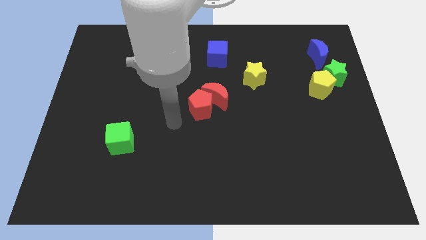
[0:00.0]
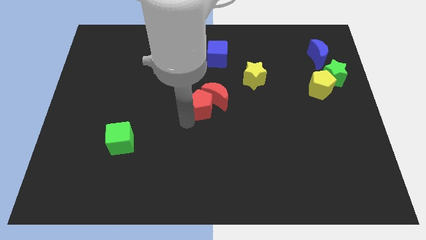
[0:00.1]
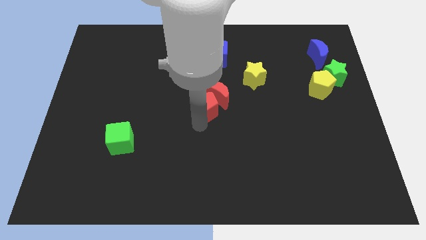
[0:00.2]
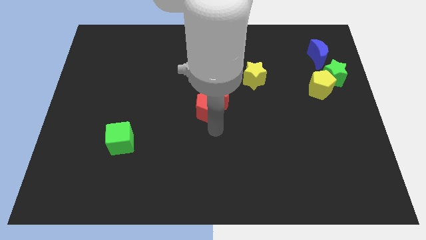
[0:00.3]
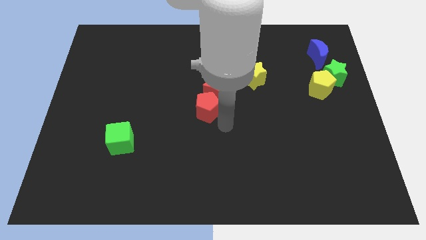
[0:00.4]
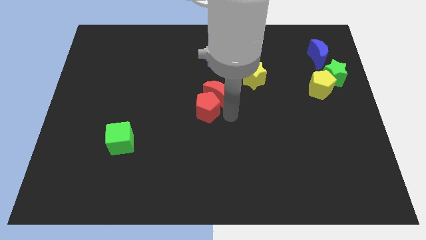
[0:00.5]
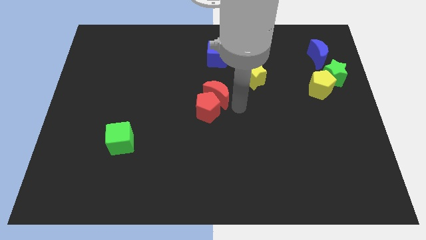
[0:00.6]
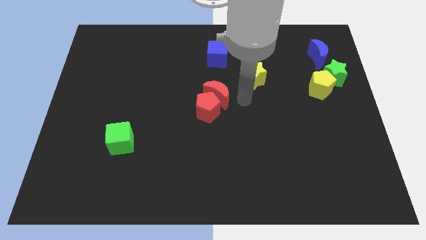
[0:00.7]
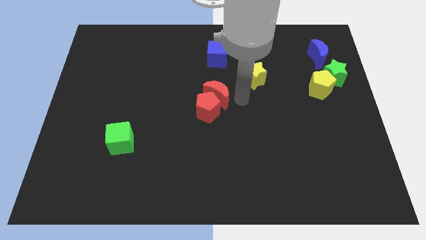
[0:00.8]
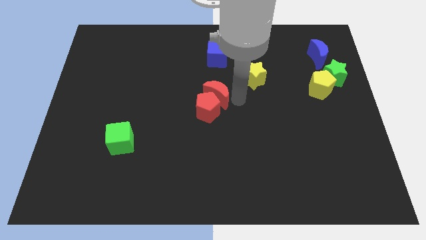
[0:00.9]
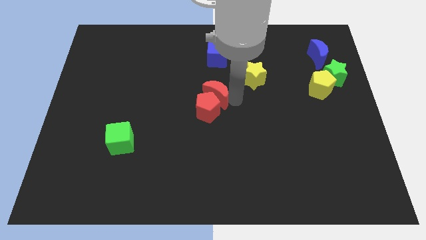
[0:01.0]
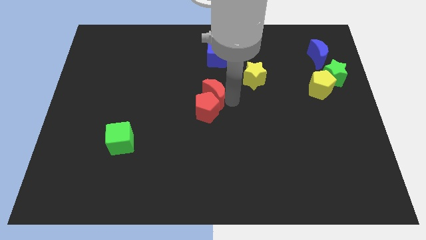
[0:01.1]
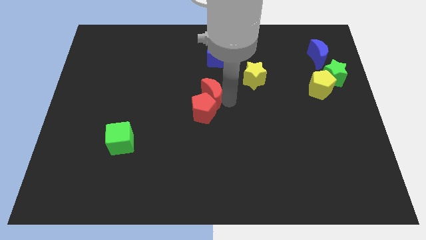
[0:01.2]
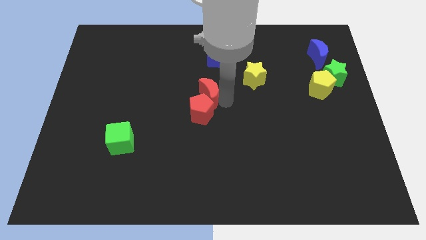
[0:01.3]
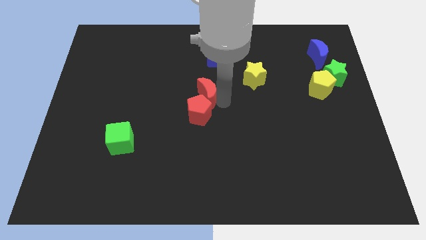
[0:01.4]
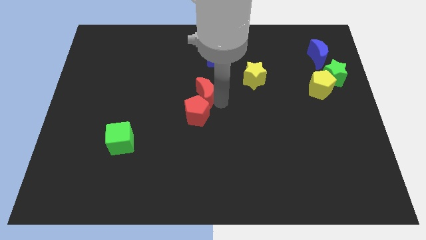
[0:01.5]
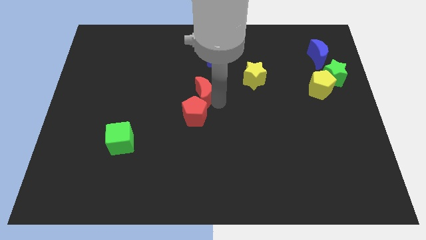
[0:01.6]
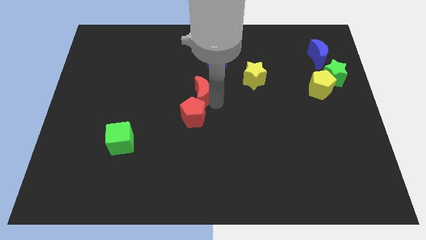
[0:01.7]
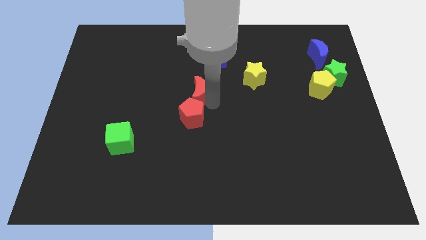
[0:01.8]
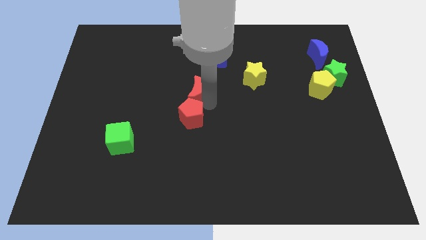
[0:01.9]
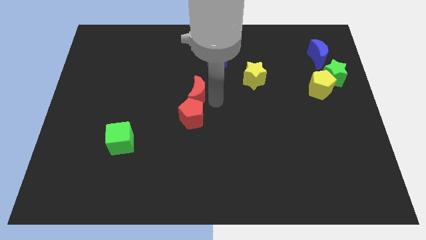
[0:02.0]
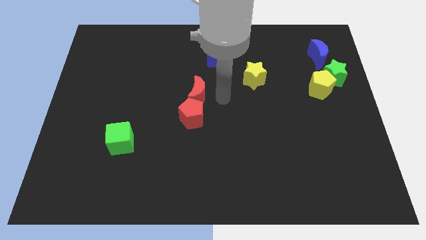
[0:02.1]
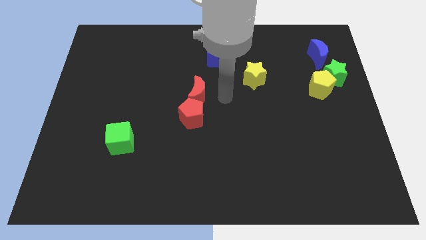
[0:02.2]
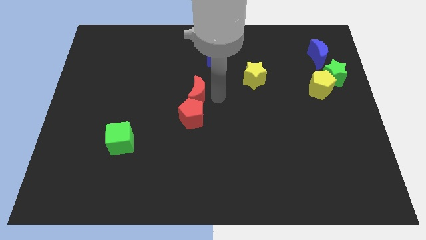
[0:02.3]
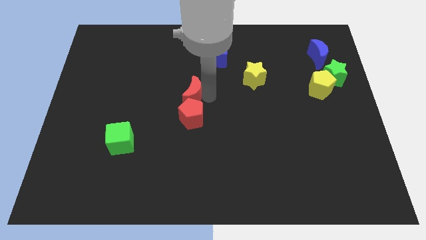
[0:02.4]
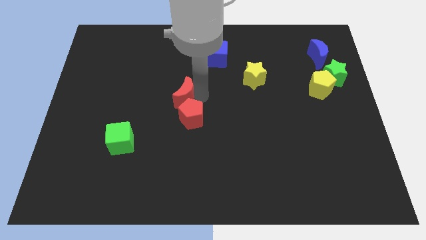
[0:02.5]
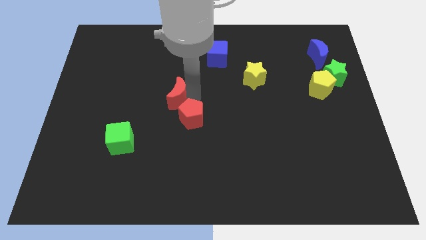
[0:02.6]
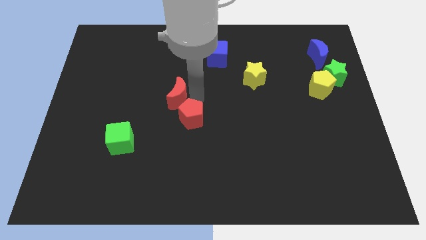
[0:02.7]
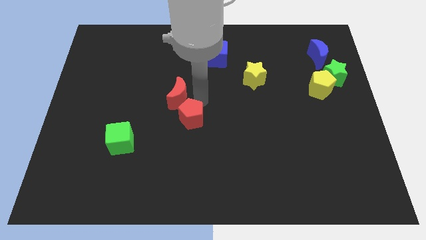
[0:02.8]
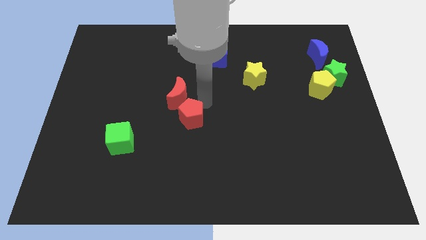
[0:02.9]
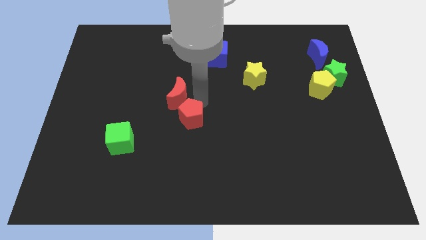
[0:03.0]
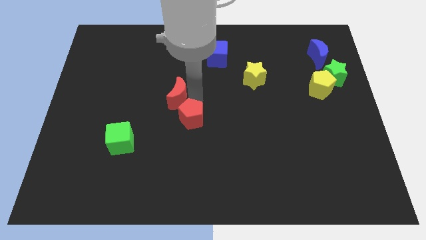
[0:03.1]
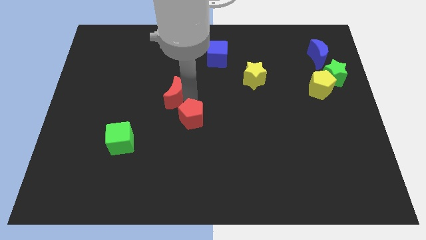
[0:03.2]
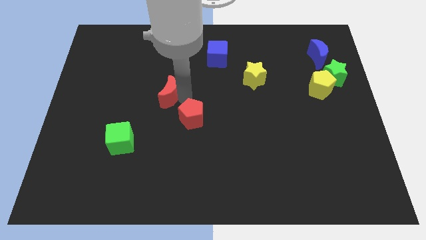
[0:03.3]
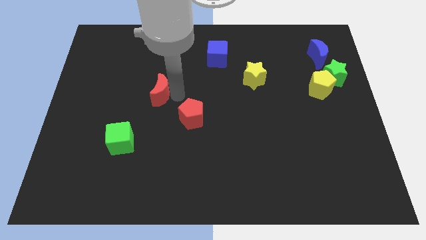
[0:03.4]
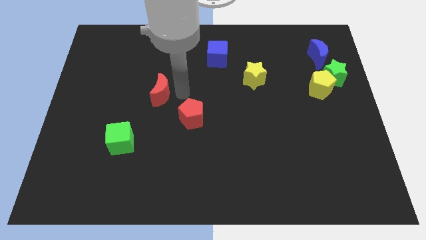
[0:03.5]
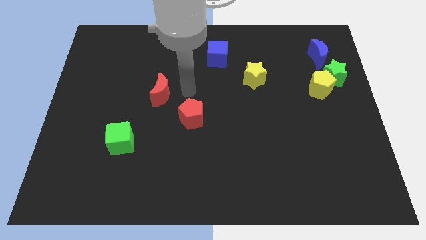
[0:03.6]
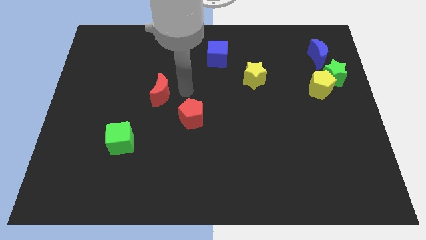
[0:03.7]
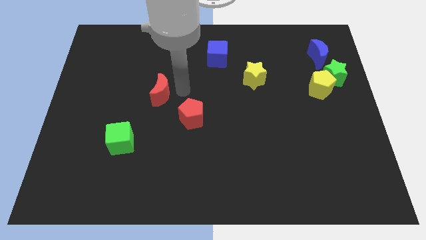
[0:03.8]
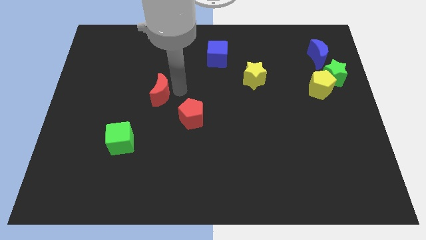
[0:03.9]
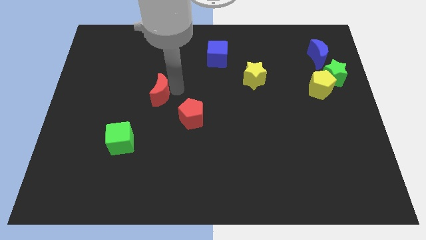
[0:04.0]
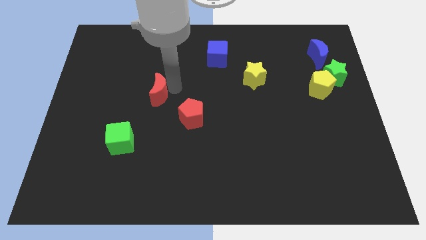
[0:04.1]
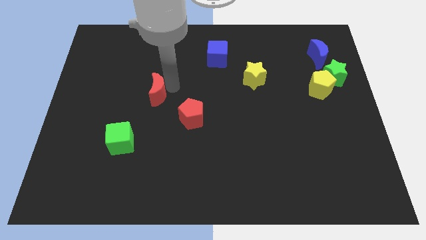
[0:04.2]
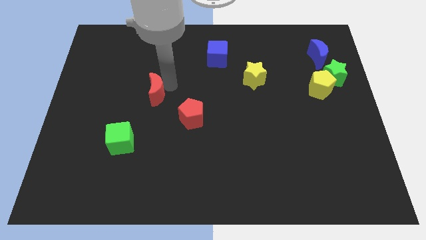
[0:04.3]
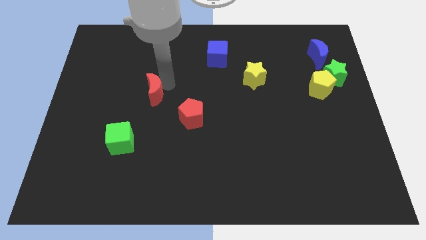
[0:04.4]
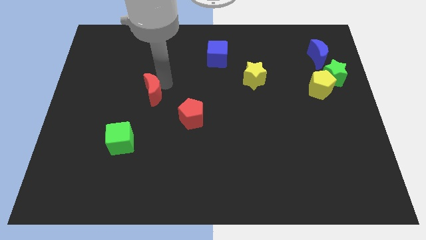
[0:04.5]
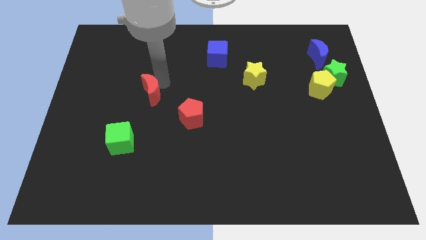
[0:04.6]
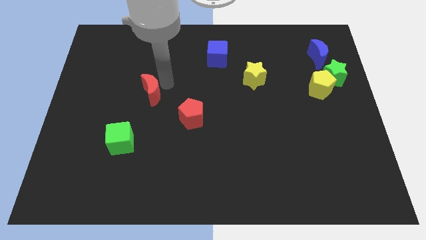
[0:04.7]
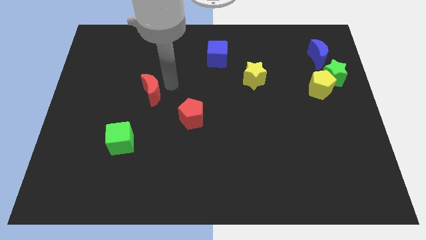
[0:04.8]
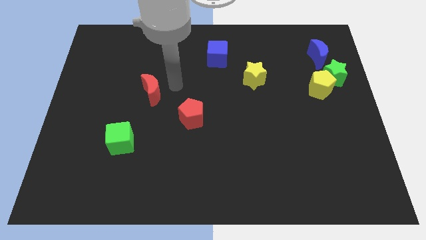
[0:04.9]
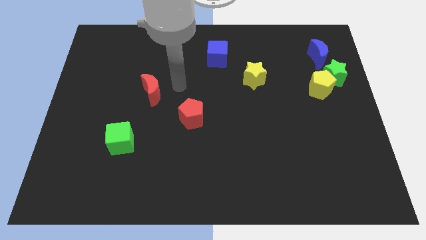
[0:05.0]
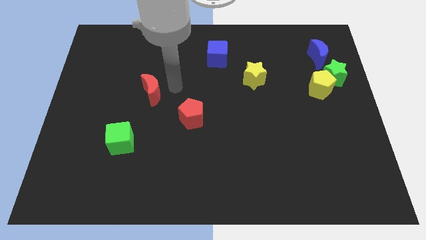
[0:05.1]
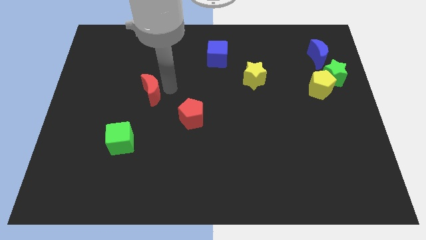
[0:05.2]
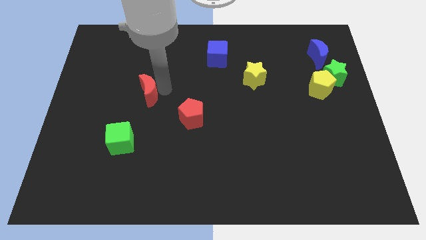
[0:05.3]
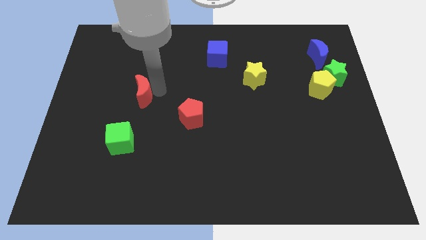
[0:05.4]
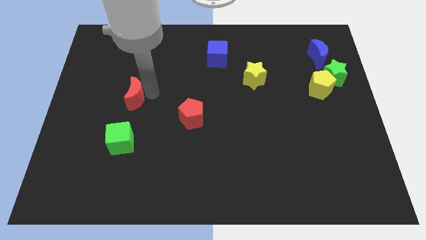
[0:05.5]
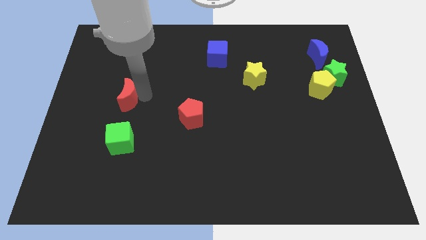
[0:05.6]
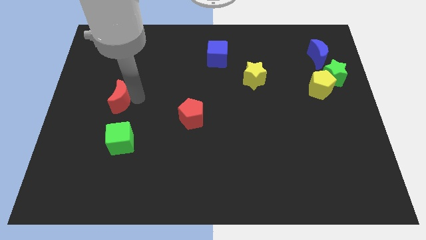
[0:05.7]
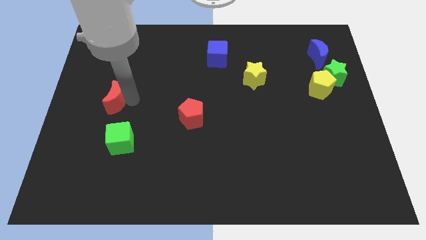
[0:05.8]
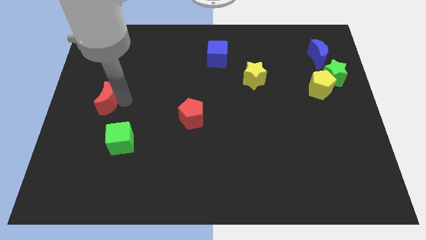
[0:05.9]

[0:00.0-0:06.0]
push the red moon to the left side
